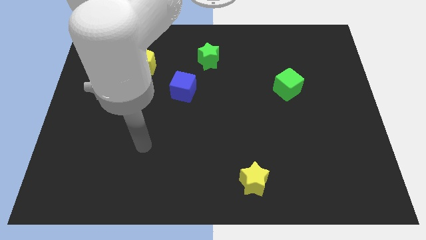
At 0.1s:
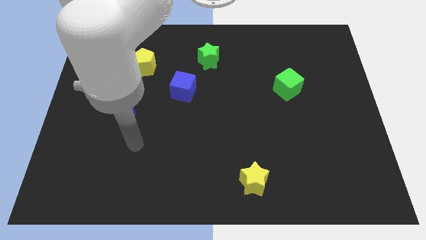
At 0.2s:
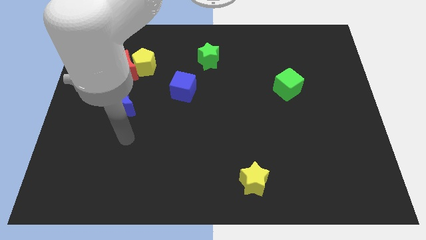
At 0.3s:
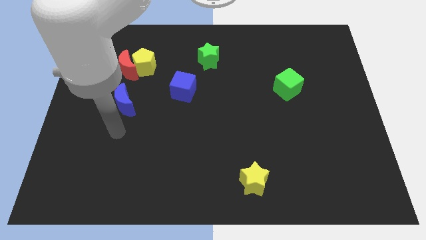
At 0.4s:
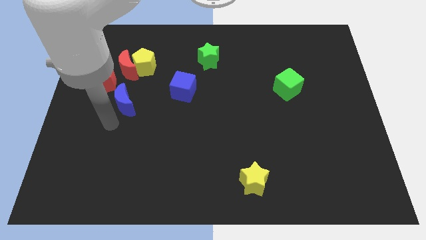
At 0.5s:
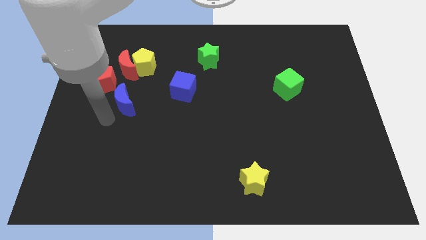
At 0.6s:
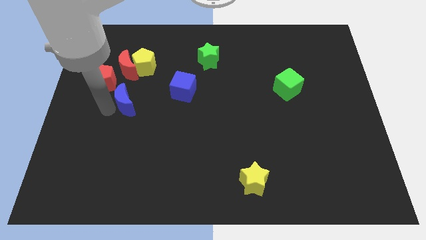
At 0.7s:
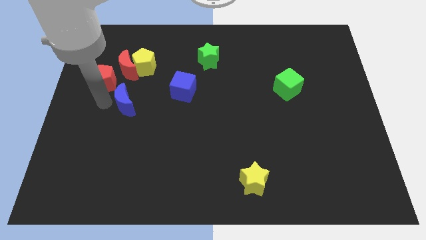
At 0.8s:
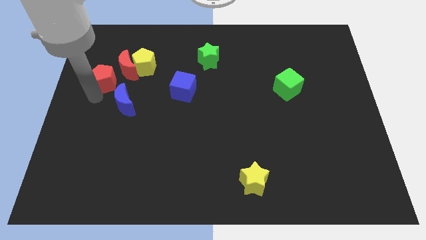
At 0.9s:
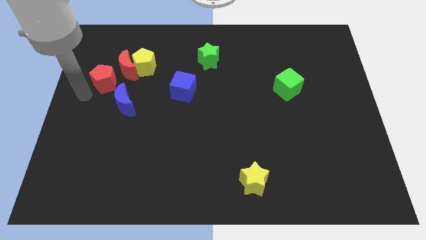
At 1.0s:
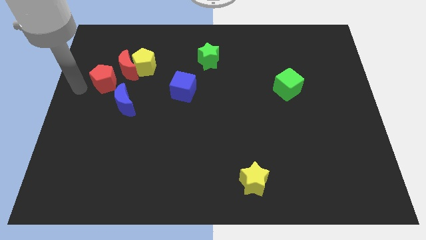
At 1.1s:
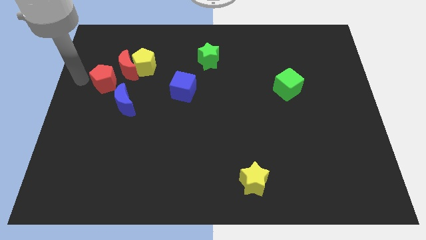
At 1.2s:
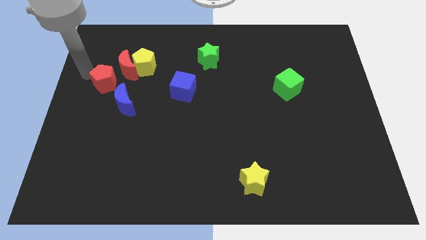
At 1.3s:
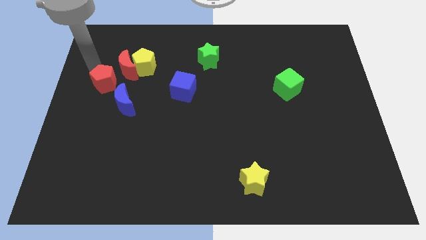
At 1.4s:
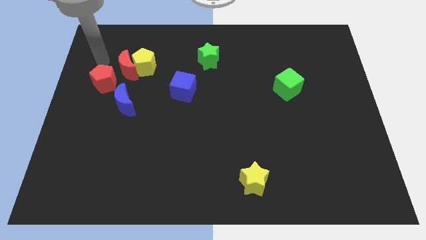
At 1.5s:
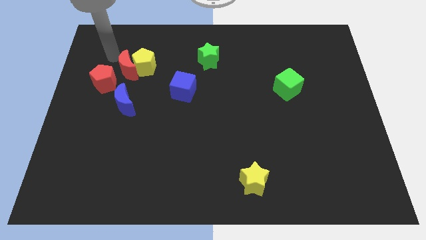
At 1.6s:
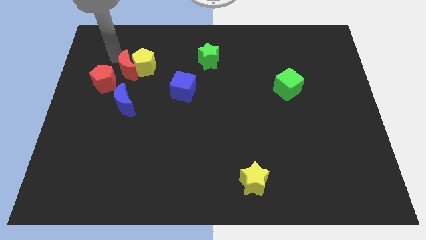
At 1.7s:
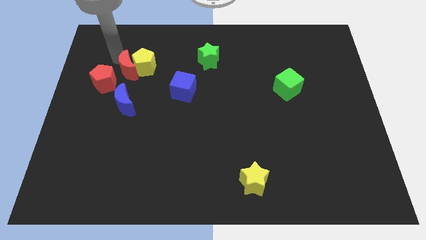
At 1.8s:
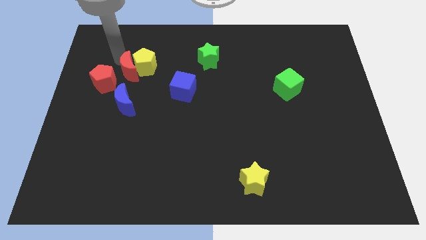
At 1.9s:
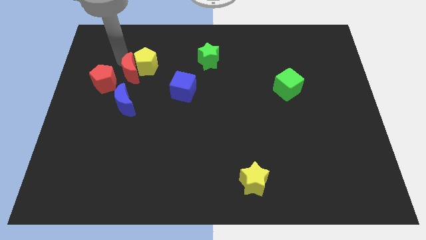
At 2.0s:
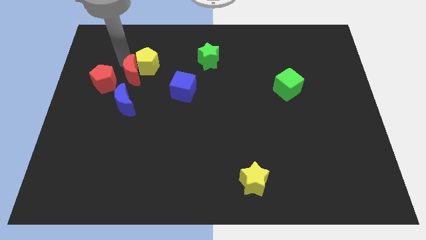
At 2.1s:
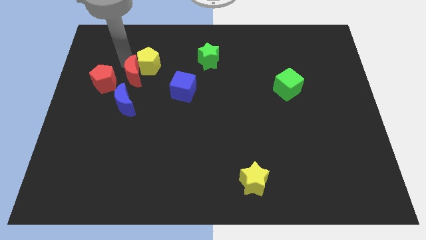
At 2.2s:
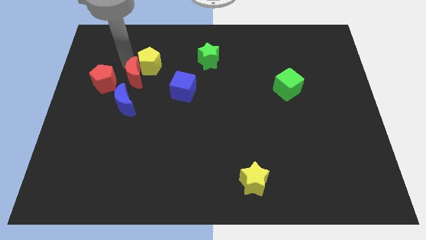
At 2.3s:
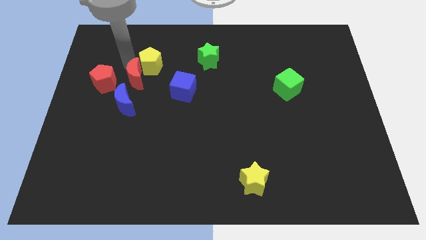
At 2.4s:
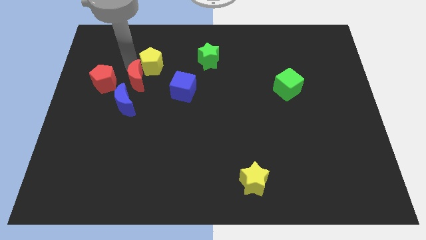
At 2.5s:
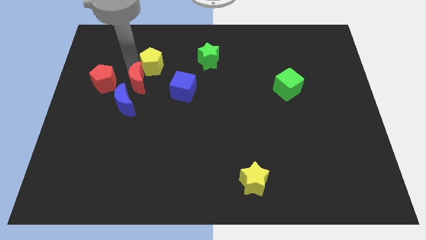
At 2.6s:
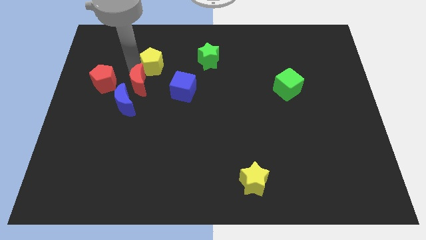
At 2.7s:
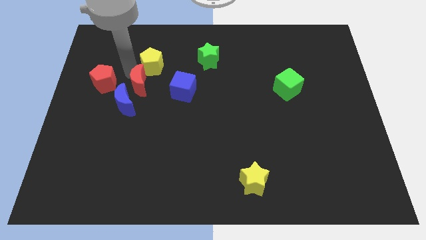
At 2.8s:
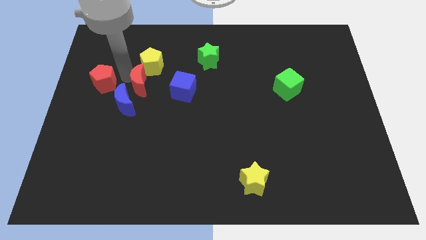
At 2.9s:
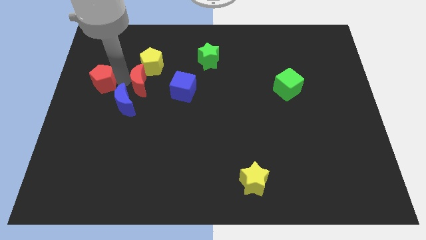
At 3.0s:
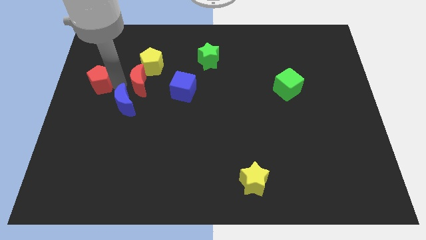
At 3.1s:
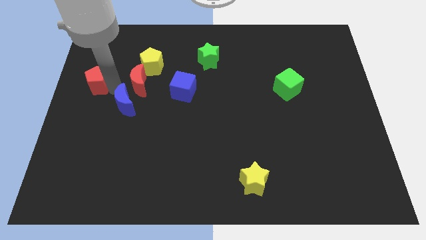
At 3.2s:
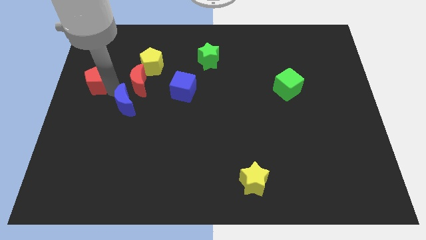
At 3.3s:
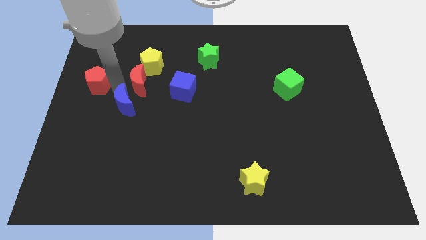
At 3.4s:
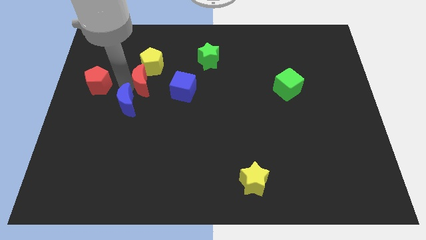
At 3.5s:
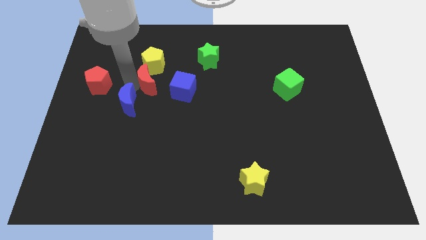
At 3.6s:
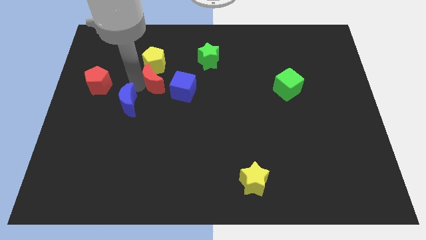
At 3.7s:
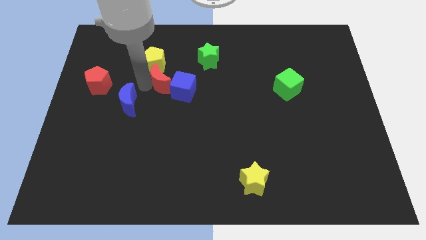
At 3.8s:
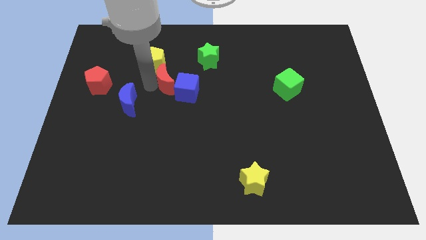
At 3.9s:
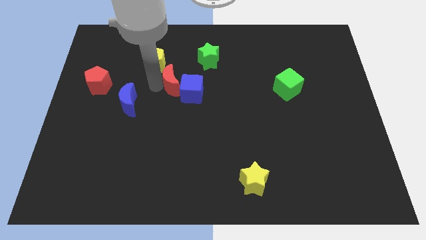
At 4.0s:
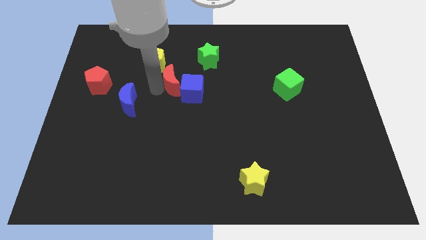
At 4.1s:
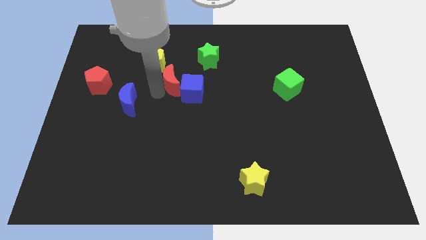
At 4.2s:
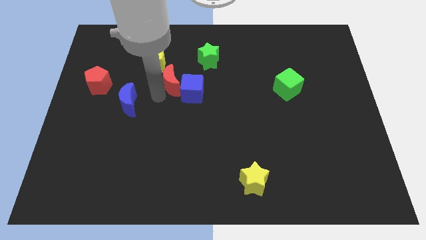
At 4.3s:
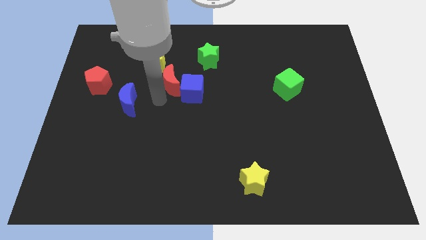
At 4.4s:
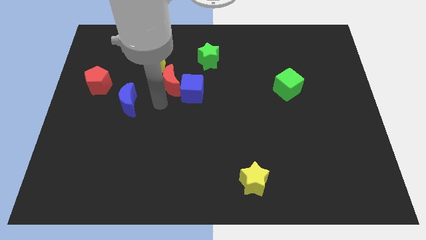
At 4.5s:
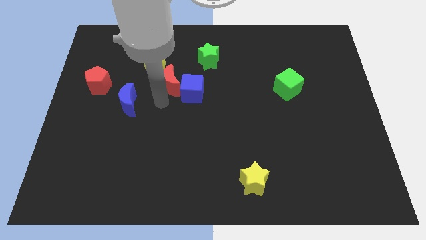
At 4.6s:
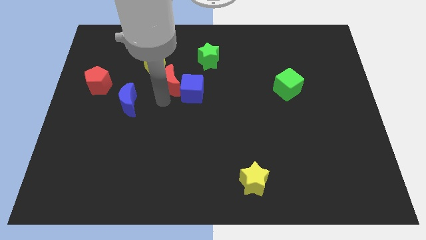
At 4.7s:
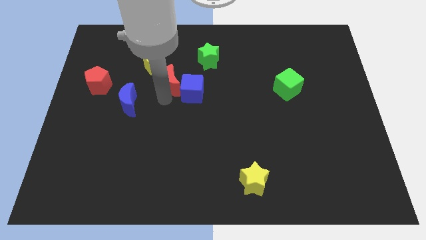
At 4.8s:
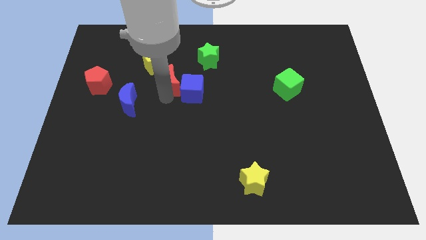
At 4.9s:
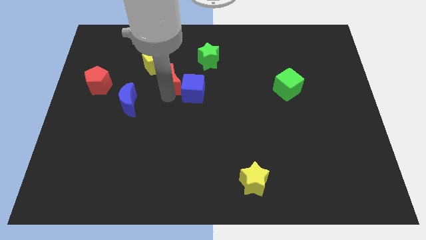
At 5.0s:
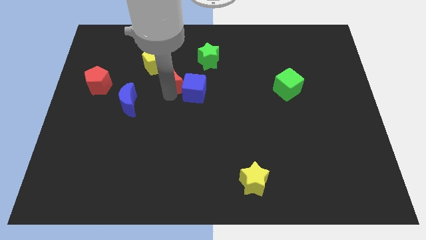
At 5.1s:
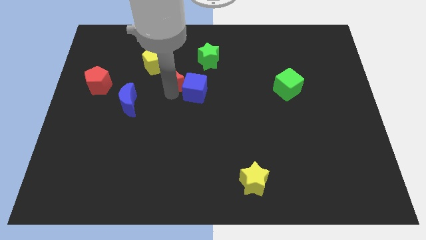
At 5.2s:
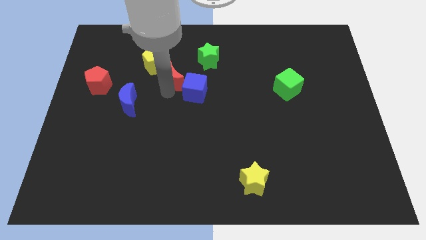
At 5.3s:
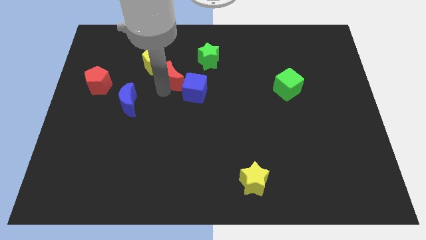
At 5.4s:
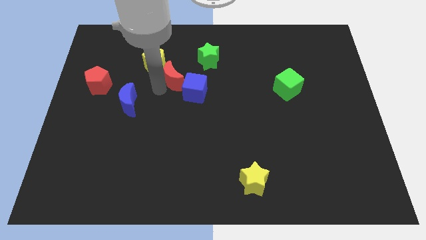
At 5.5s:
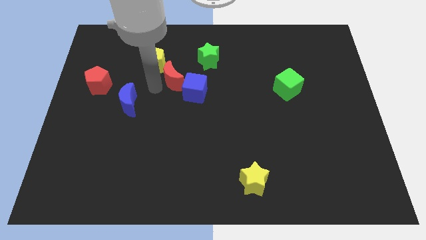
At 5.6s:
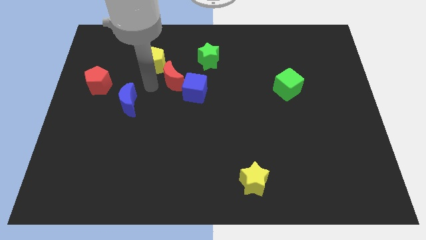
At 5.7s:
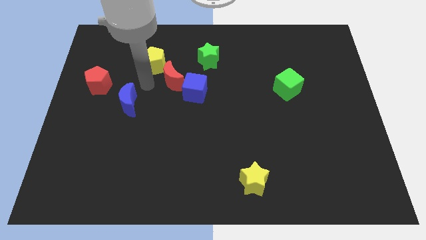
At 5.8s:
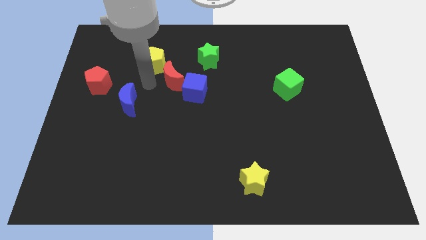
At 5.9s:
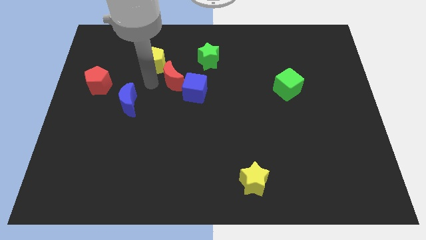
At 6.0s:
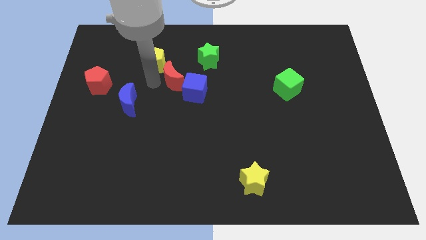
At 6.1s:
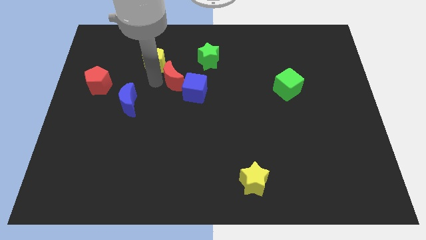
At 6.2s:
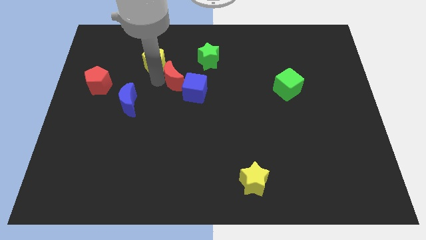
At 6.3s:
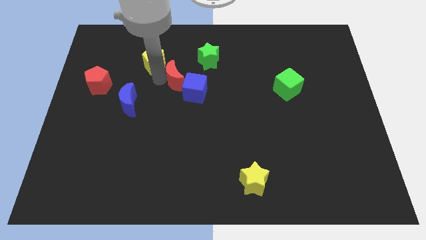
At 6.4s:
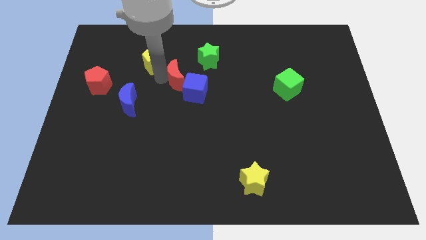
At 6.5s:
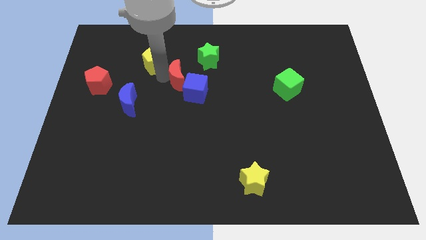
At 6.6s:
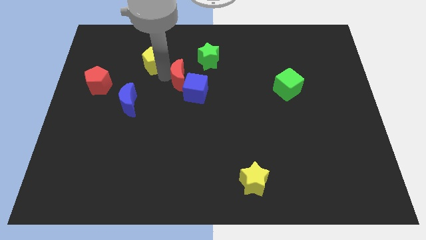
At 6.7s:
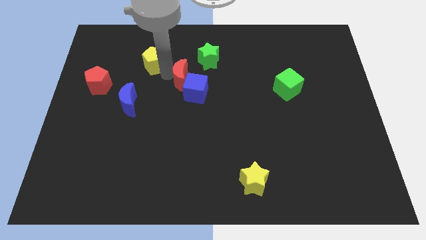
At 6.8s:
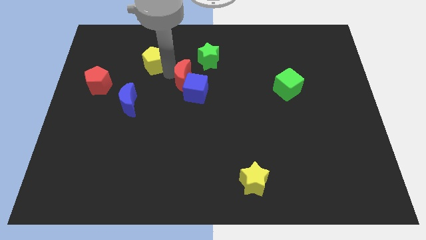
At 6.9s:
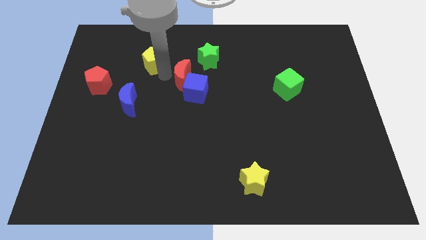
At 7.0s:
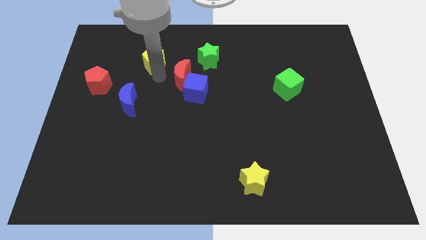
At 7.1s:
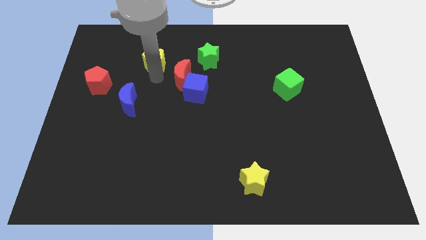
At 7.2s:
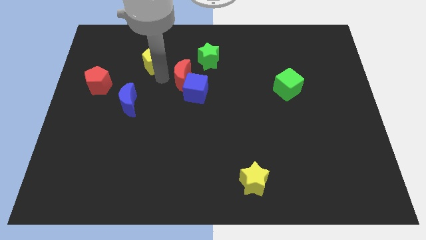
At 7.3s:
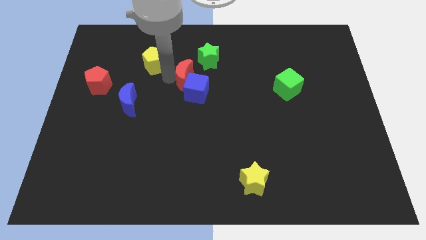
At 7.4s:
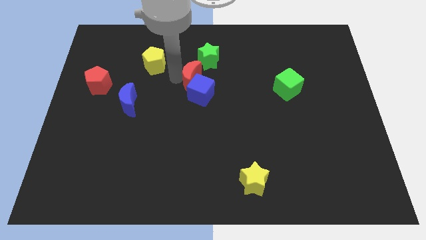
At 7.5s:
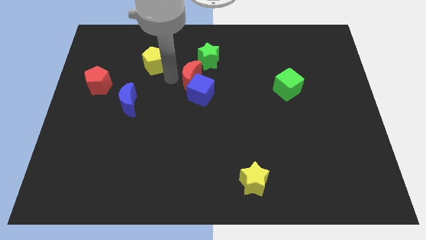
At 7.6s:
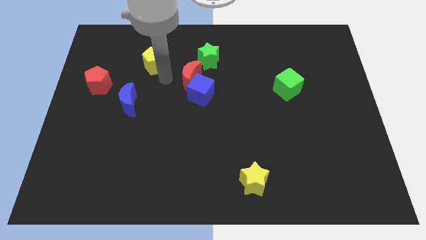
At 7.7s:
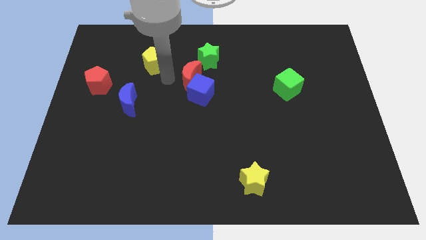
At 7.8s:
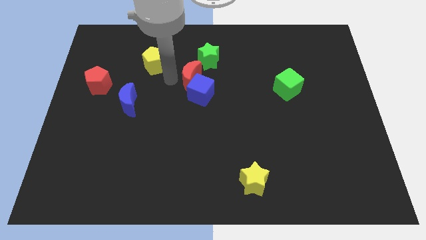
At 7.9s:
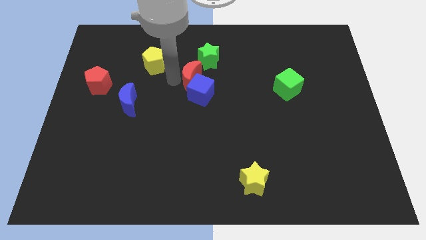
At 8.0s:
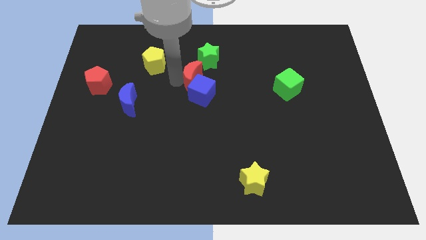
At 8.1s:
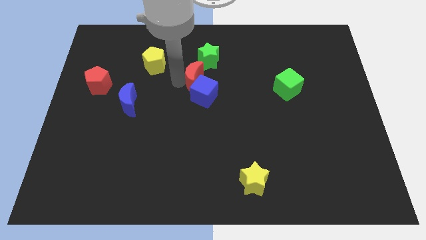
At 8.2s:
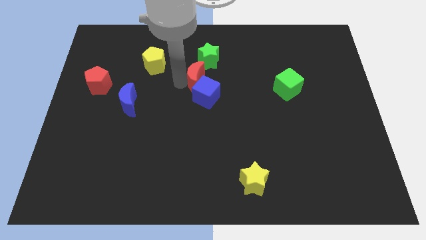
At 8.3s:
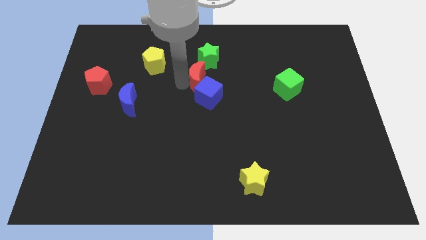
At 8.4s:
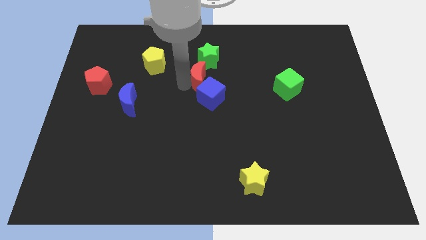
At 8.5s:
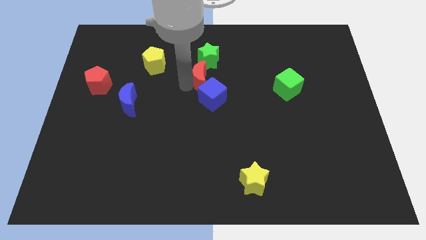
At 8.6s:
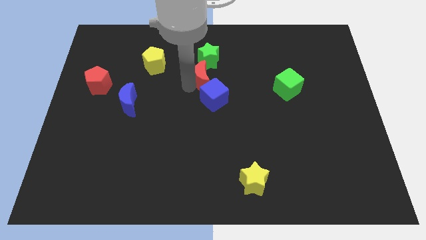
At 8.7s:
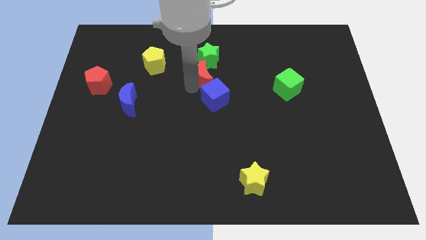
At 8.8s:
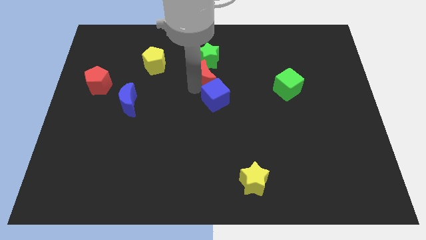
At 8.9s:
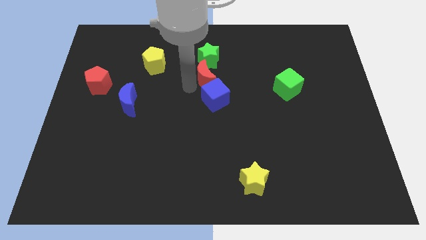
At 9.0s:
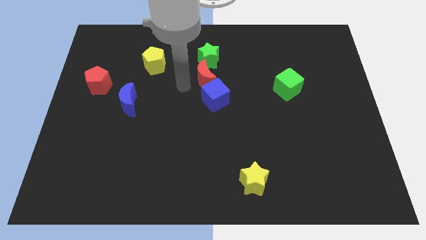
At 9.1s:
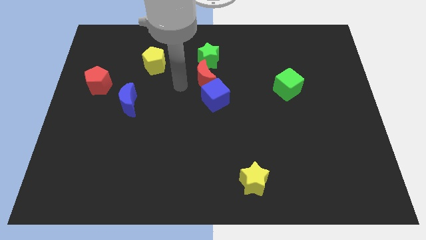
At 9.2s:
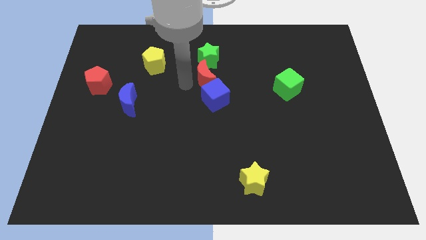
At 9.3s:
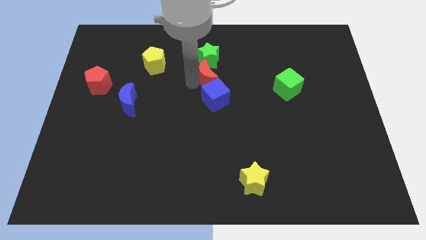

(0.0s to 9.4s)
move the red moon to the right
